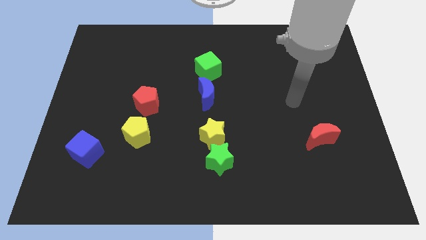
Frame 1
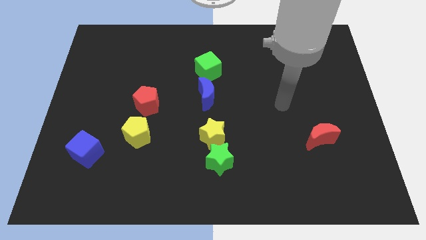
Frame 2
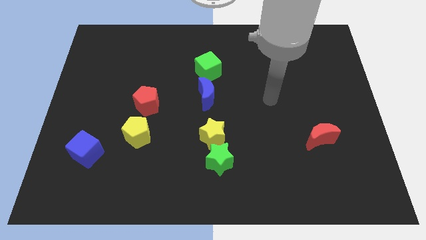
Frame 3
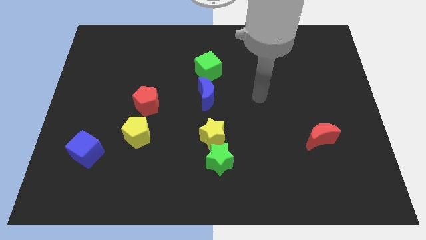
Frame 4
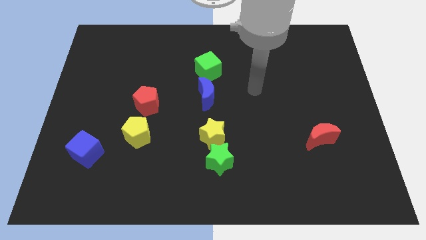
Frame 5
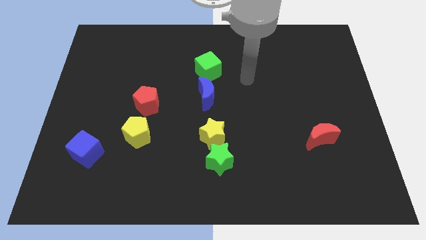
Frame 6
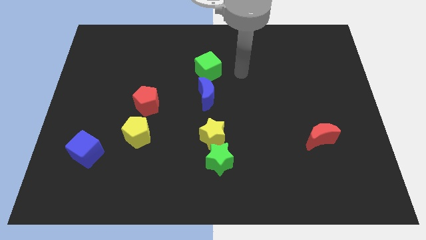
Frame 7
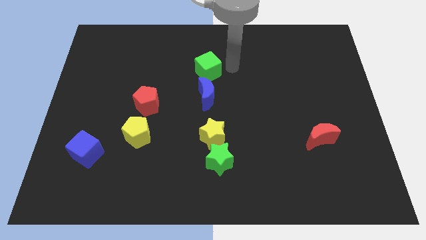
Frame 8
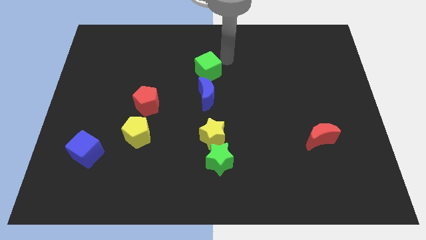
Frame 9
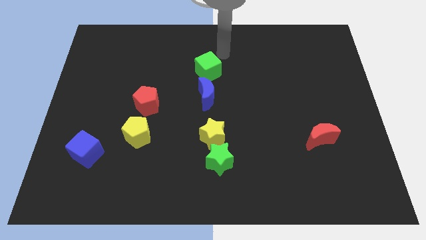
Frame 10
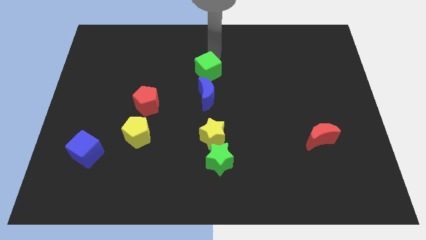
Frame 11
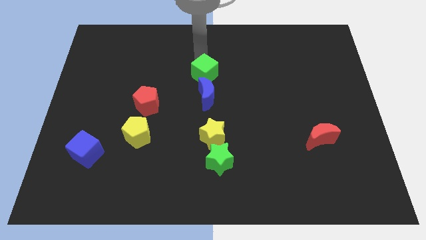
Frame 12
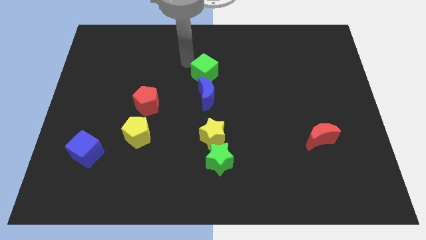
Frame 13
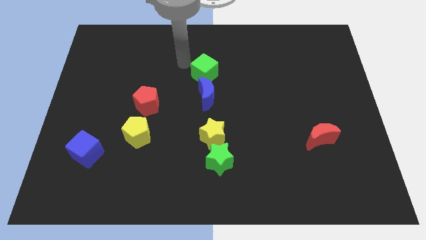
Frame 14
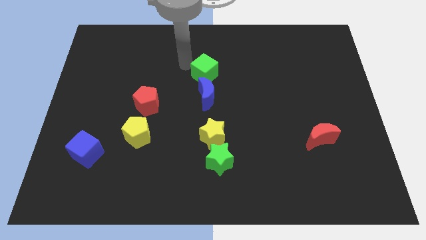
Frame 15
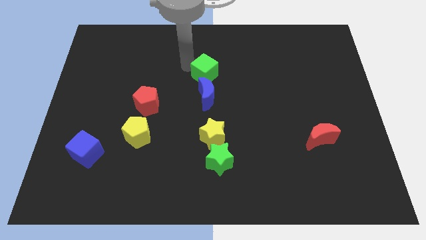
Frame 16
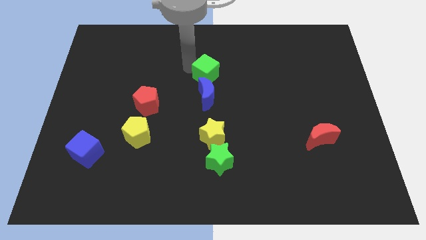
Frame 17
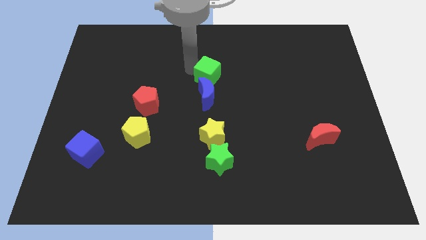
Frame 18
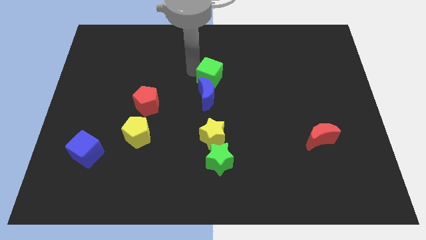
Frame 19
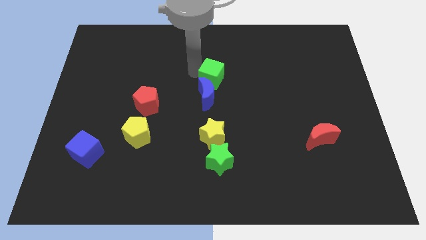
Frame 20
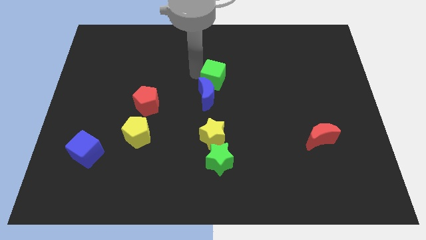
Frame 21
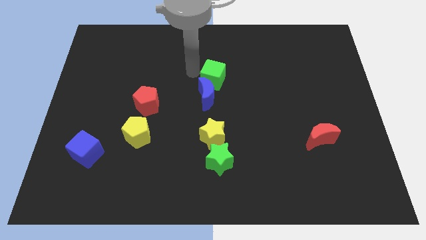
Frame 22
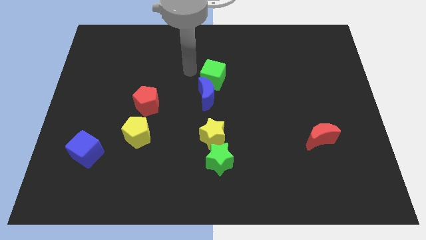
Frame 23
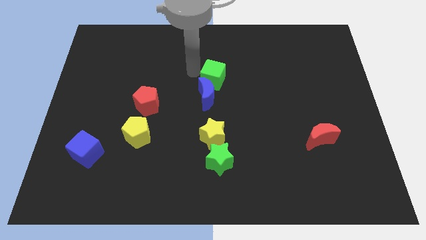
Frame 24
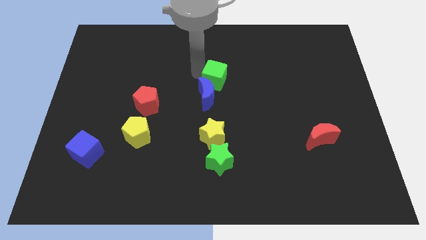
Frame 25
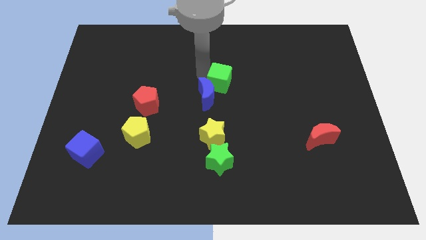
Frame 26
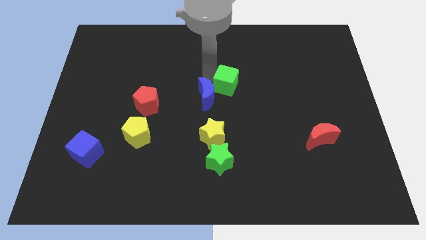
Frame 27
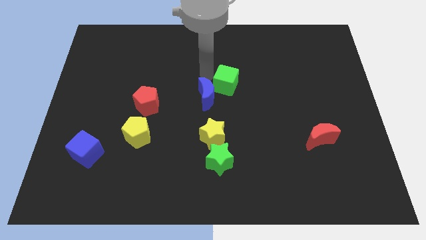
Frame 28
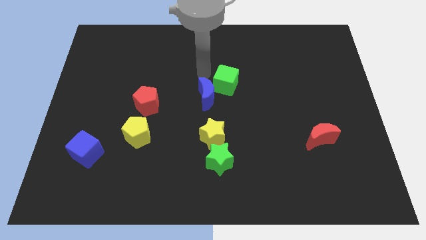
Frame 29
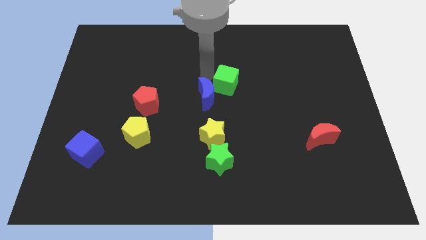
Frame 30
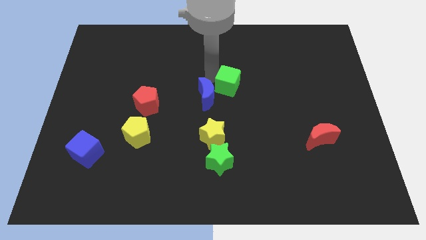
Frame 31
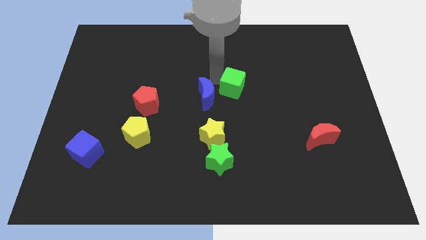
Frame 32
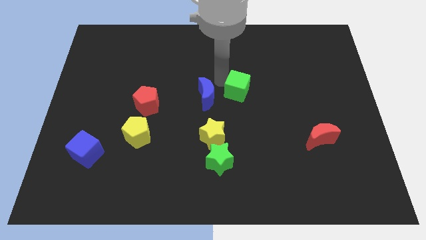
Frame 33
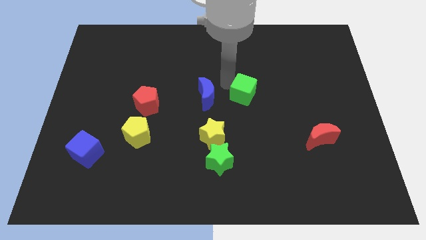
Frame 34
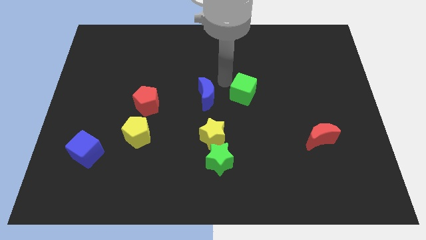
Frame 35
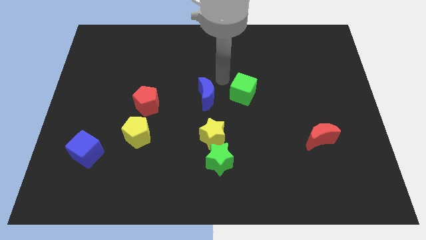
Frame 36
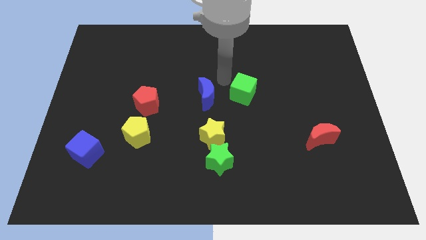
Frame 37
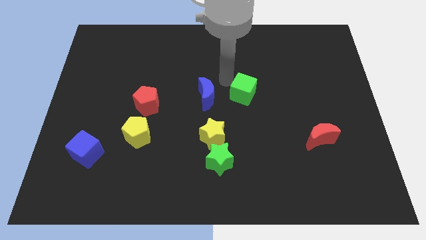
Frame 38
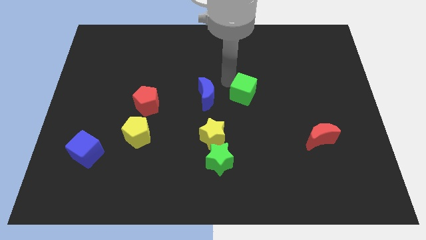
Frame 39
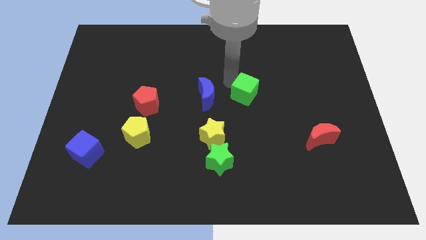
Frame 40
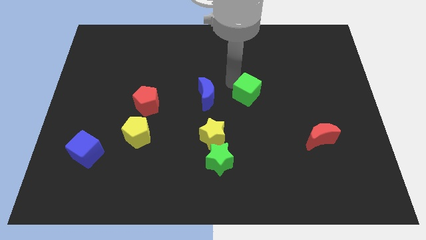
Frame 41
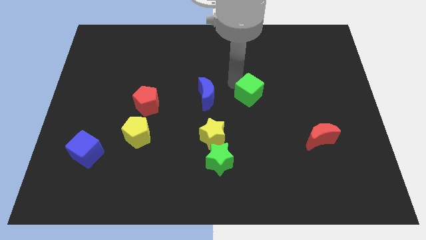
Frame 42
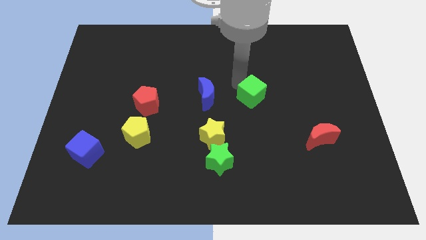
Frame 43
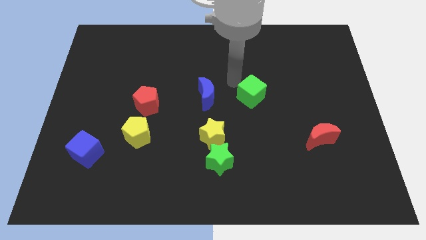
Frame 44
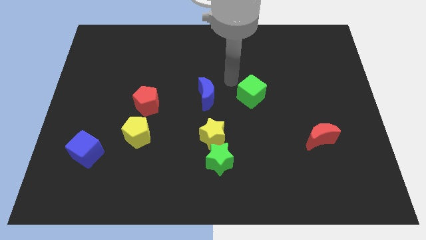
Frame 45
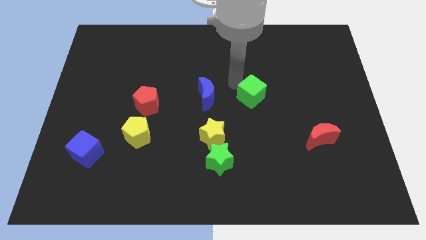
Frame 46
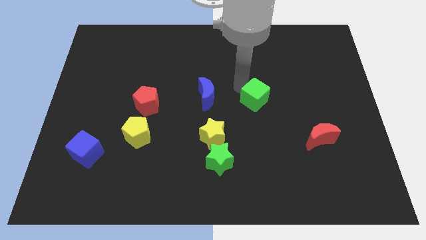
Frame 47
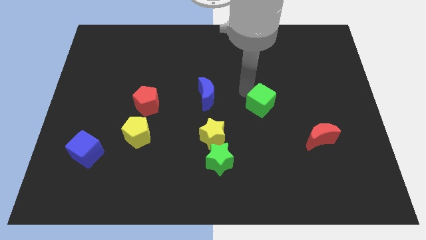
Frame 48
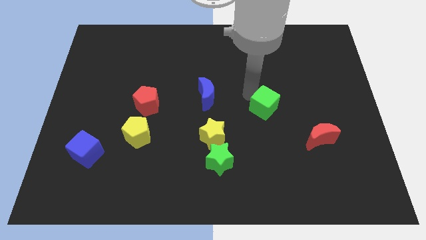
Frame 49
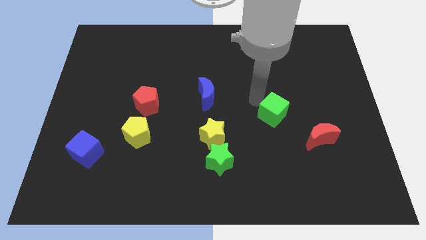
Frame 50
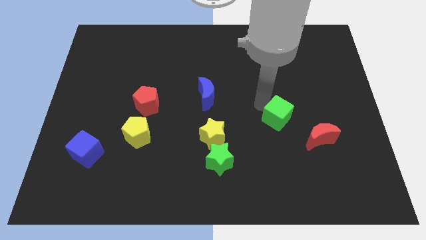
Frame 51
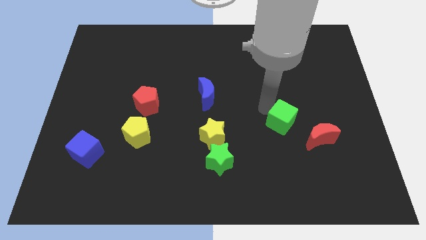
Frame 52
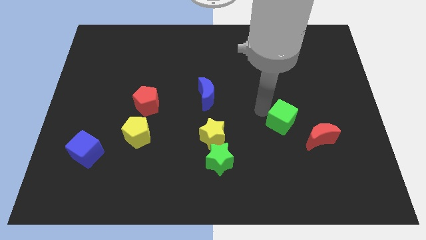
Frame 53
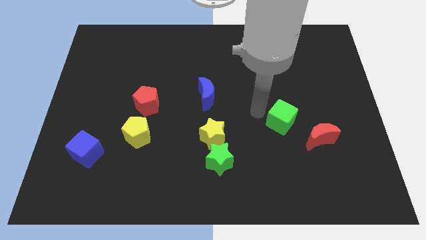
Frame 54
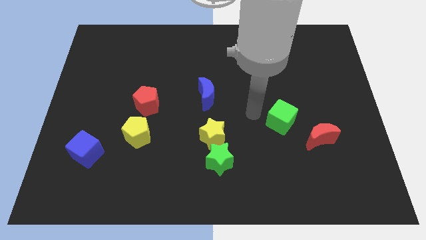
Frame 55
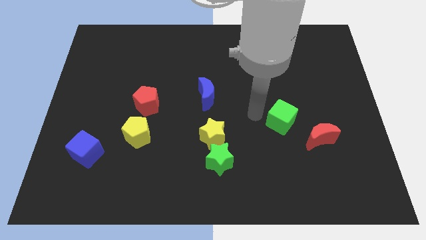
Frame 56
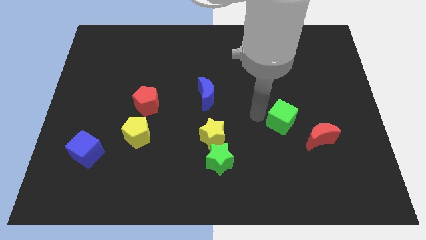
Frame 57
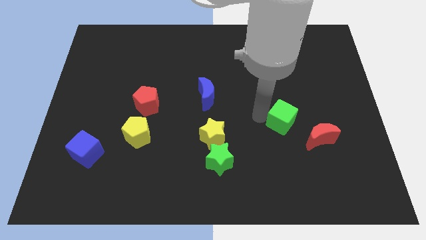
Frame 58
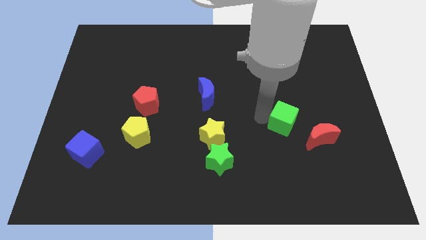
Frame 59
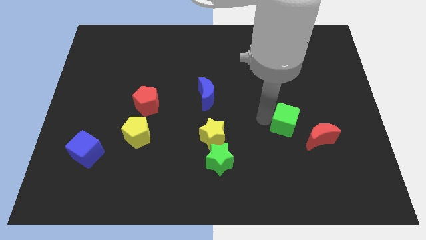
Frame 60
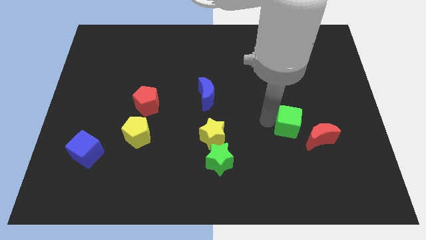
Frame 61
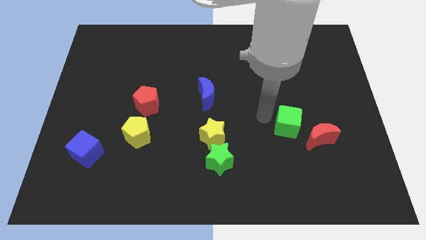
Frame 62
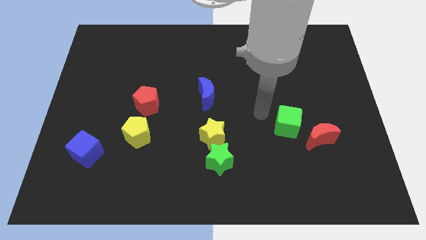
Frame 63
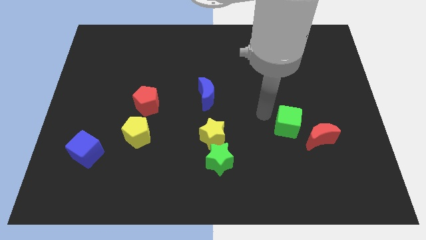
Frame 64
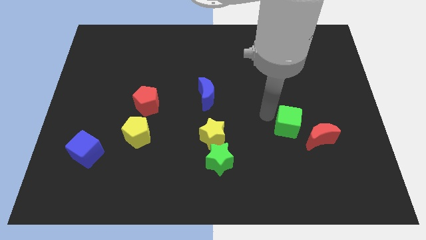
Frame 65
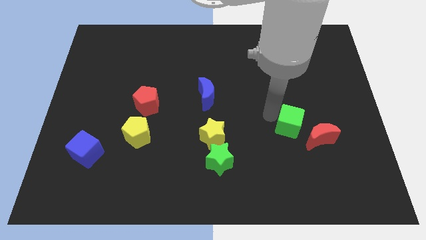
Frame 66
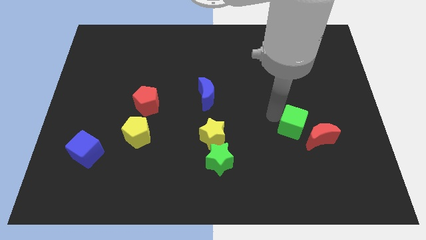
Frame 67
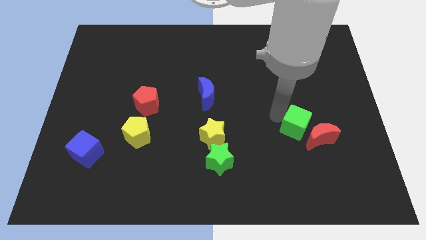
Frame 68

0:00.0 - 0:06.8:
put the green cube towards the red moon

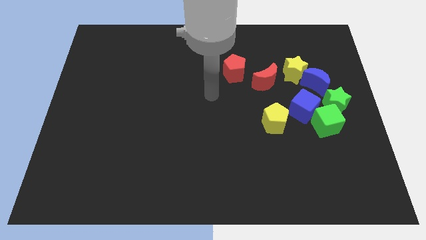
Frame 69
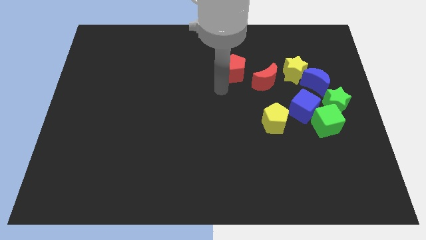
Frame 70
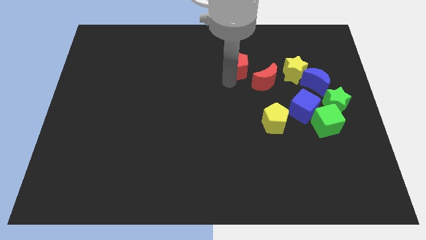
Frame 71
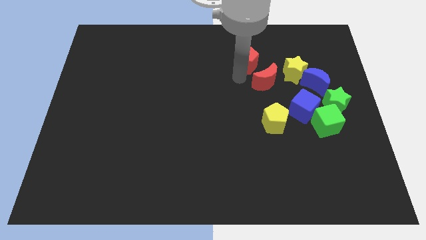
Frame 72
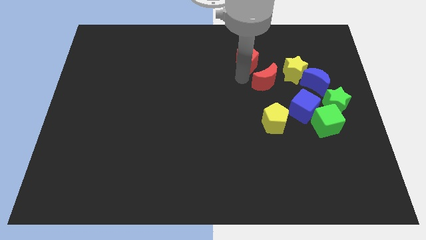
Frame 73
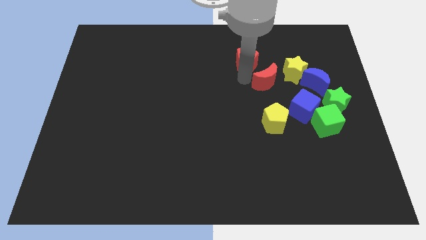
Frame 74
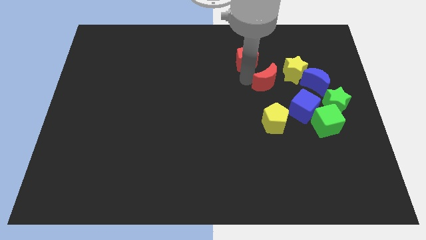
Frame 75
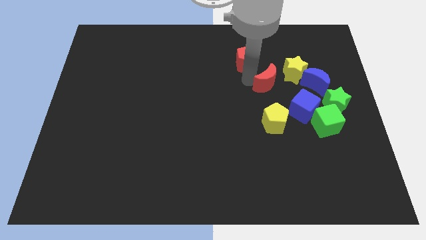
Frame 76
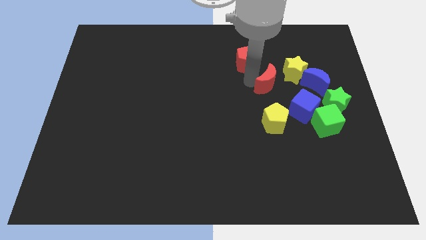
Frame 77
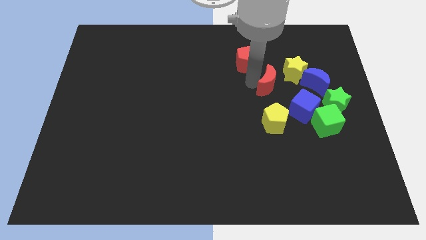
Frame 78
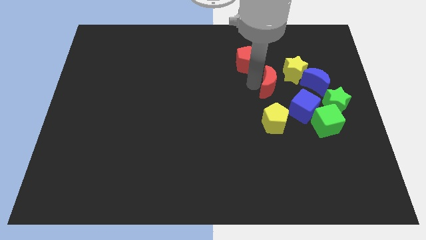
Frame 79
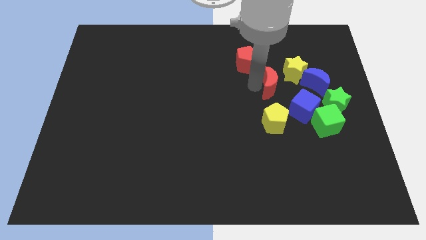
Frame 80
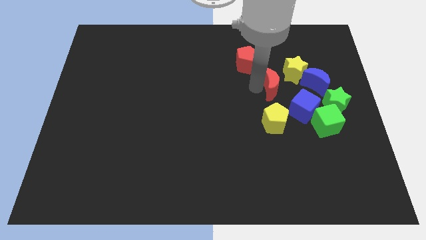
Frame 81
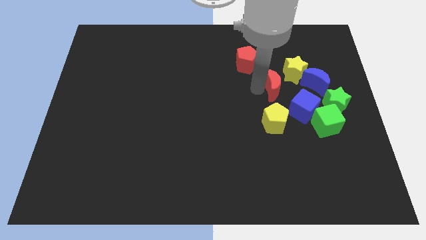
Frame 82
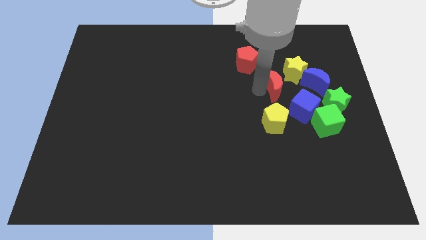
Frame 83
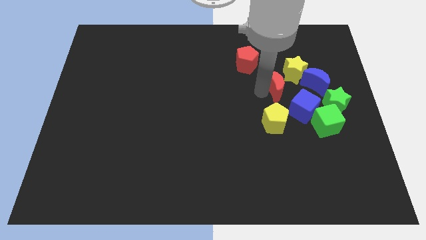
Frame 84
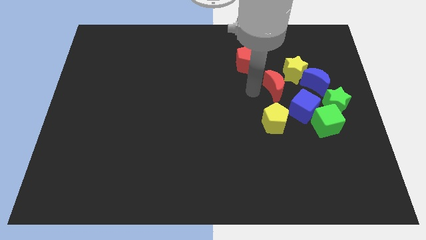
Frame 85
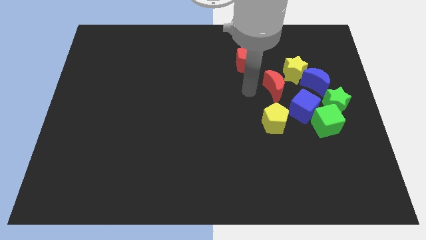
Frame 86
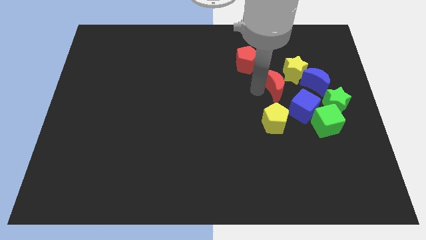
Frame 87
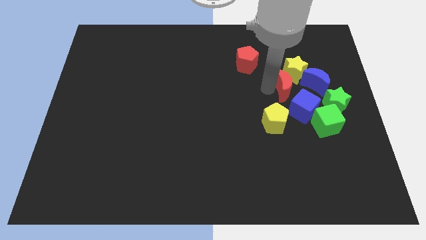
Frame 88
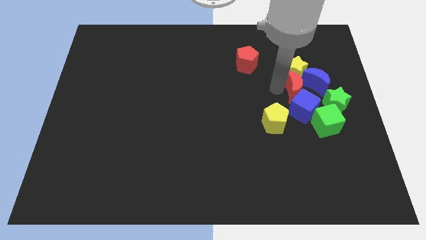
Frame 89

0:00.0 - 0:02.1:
slide the red moon to the blue moon
